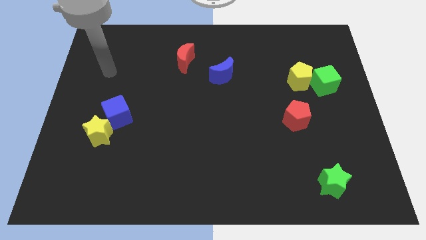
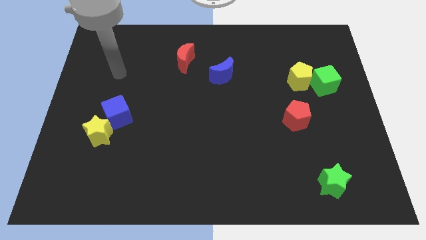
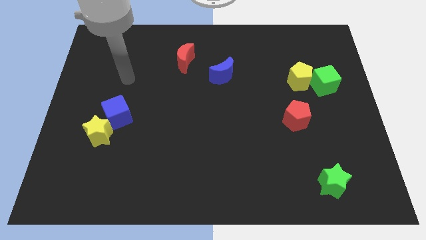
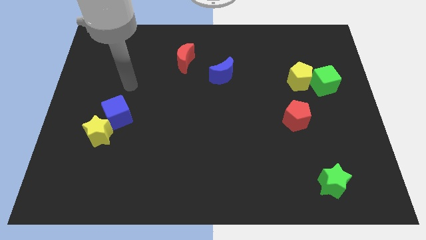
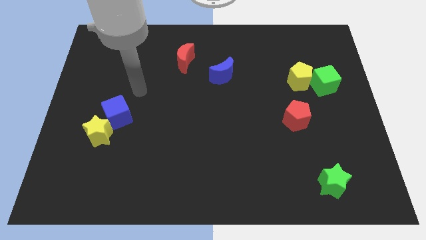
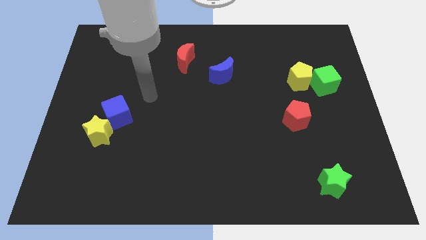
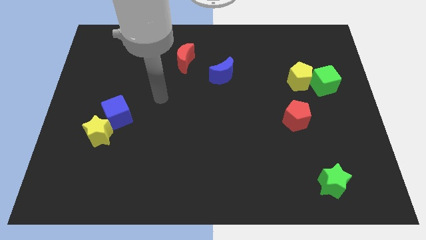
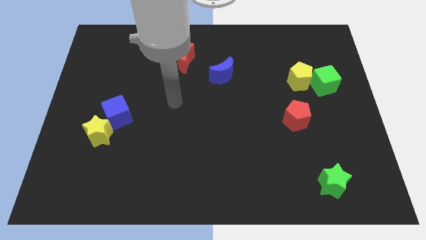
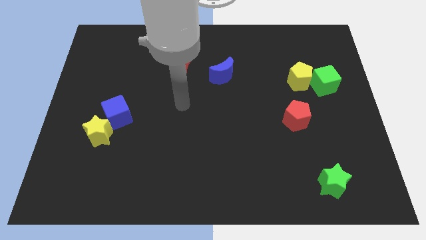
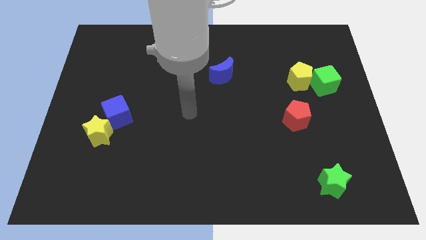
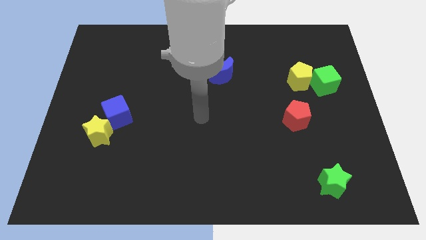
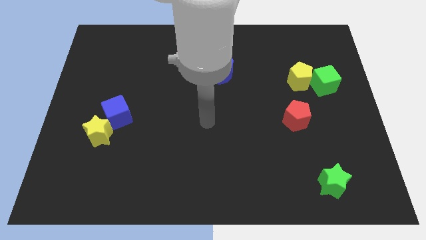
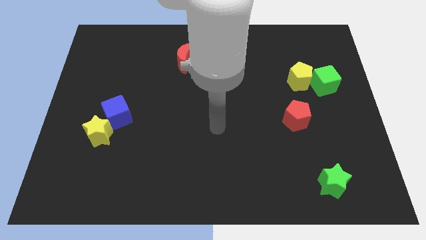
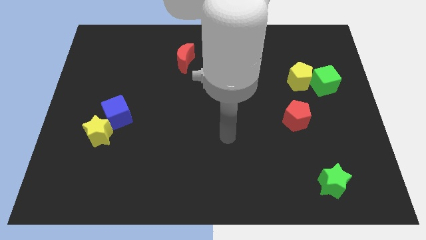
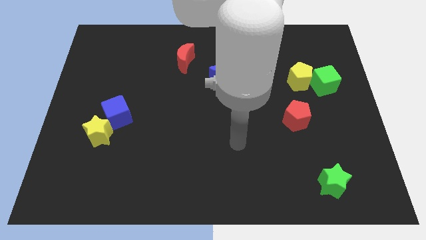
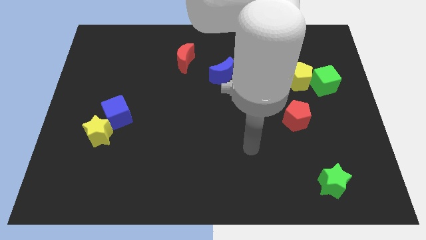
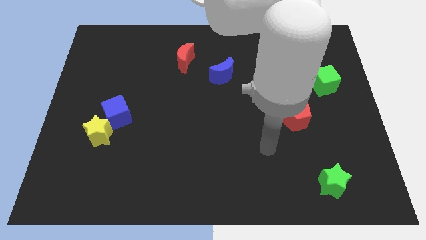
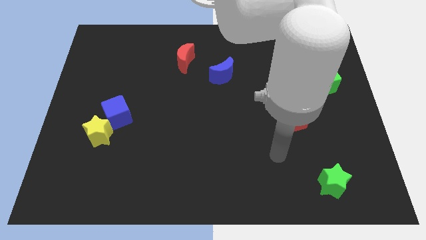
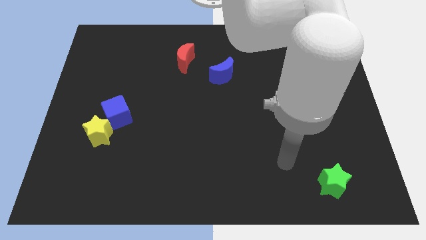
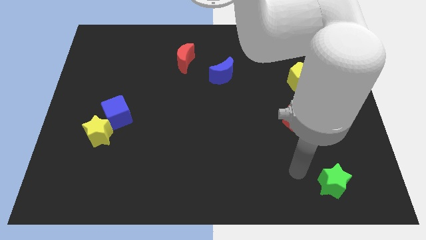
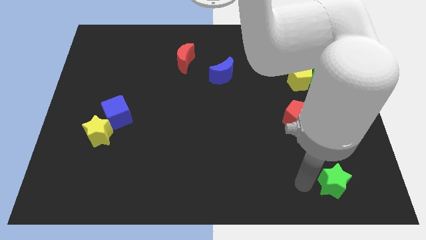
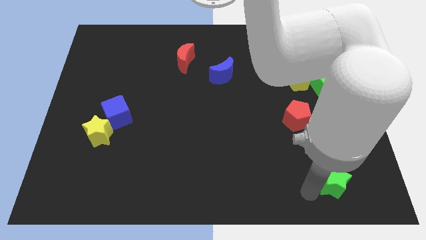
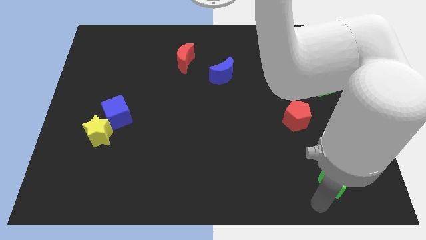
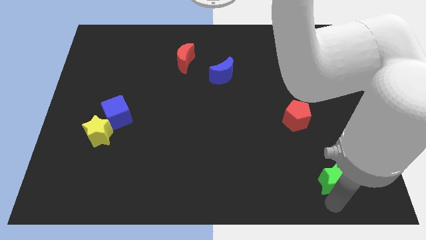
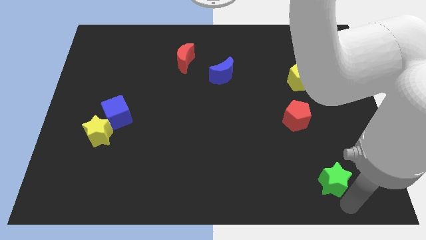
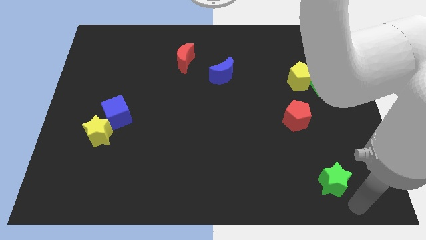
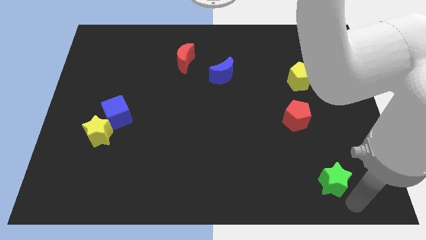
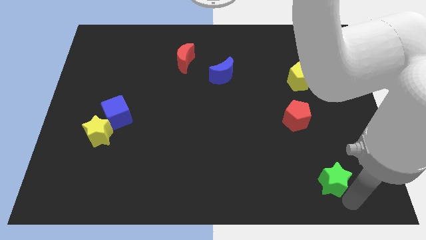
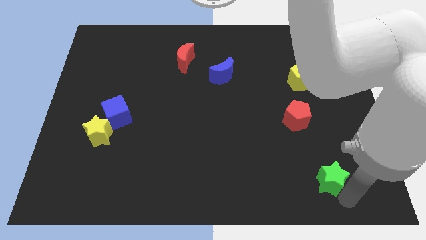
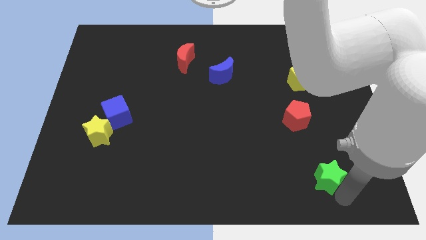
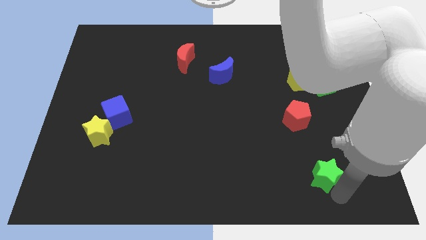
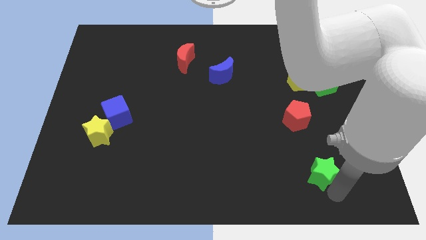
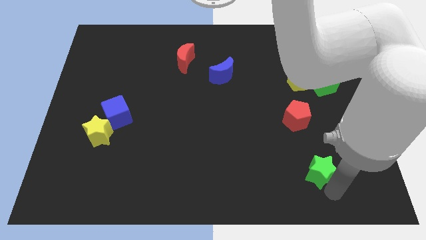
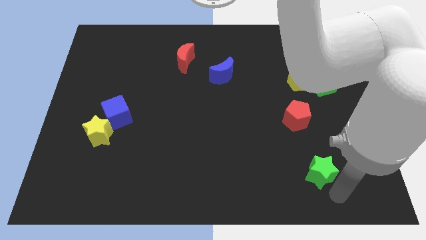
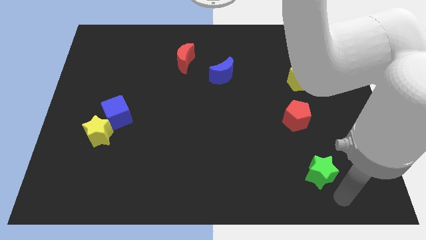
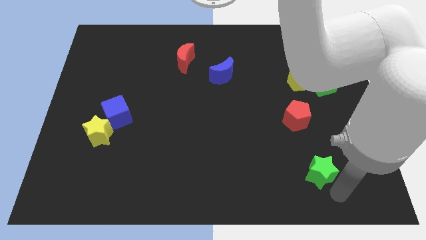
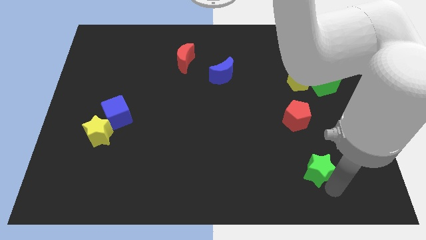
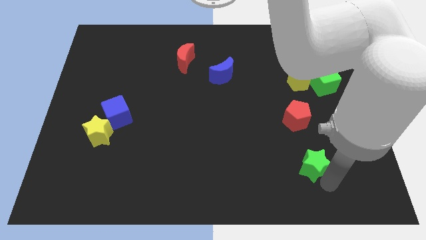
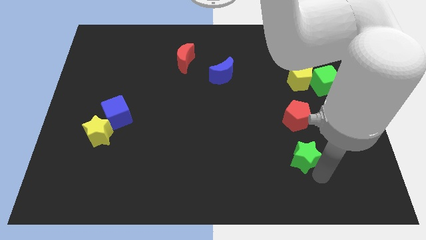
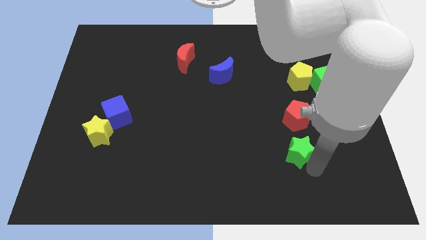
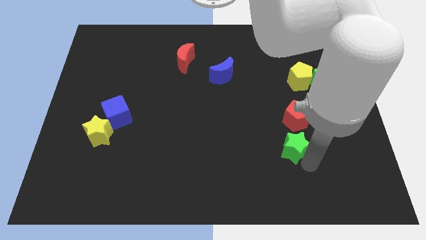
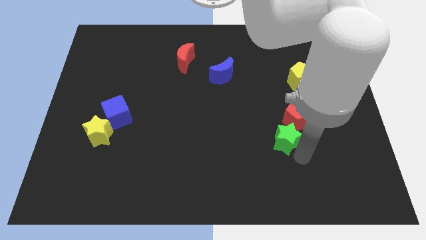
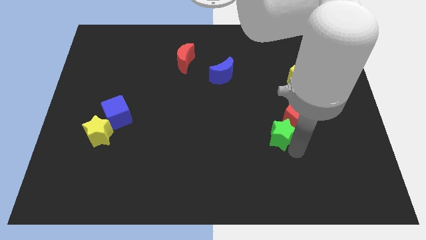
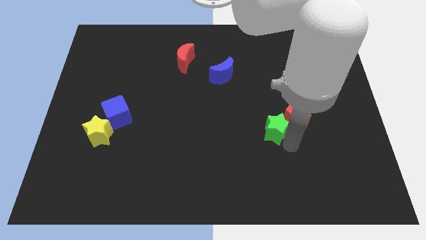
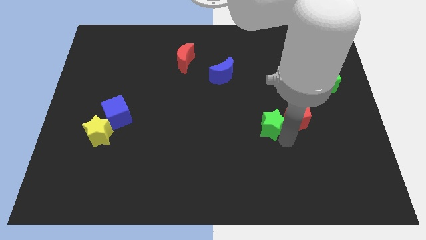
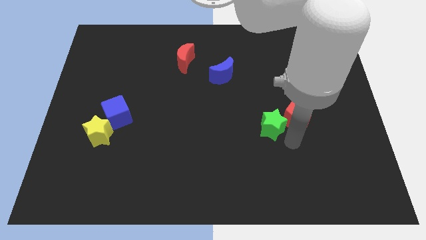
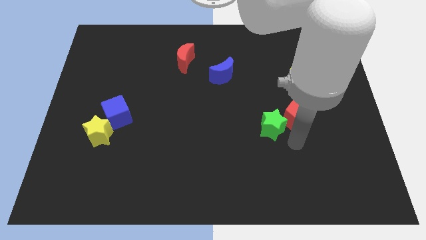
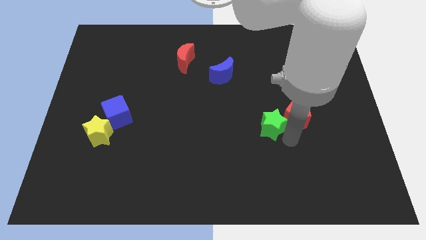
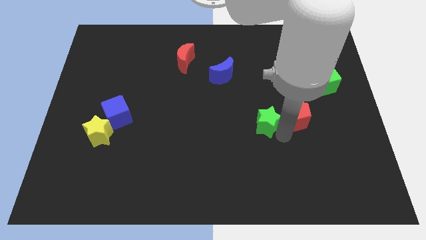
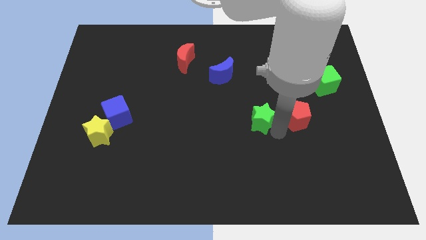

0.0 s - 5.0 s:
slide the green star diagonally up and to the left

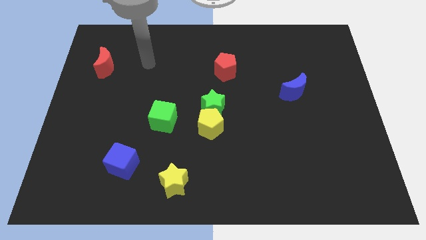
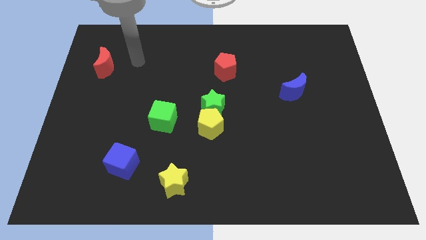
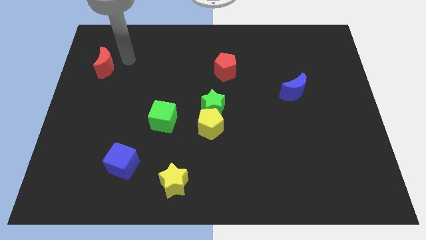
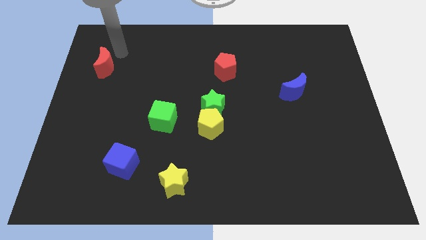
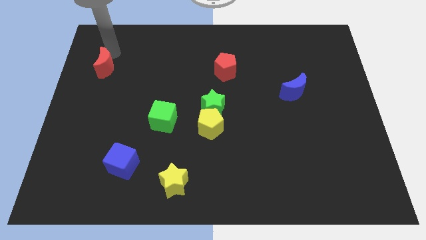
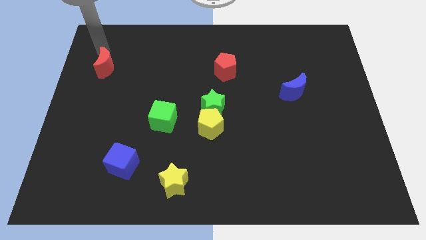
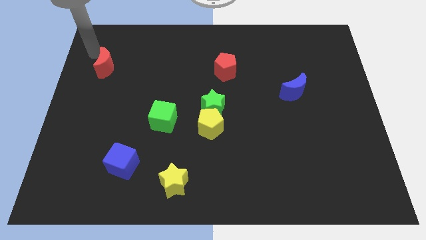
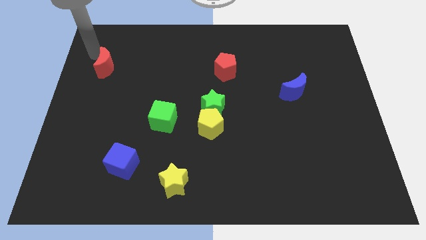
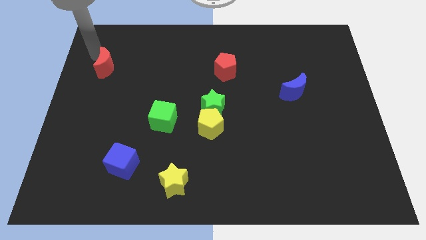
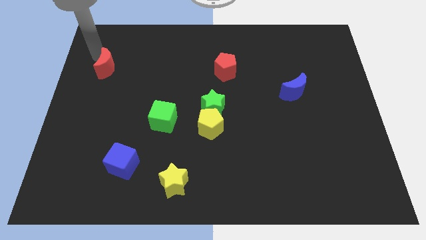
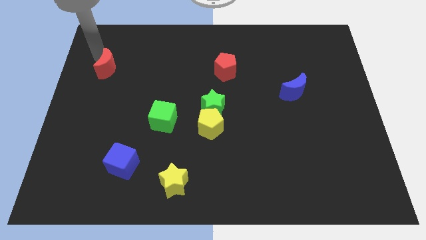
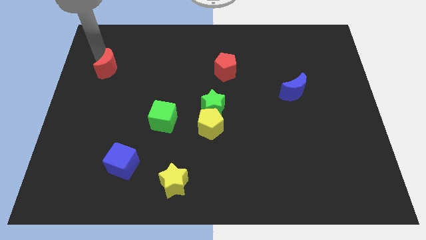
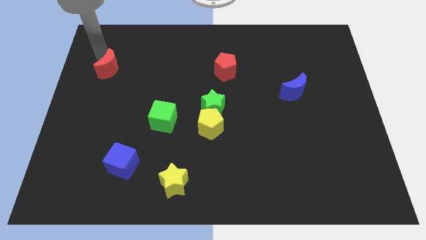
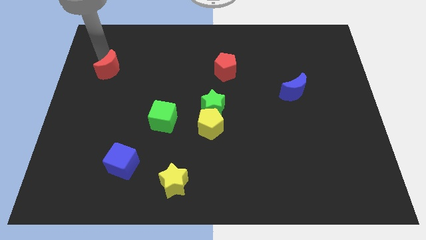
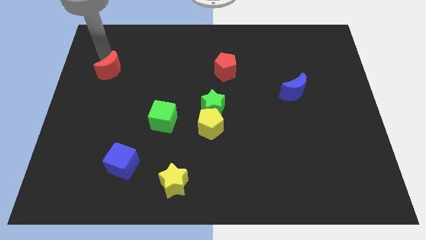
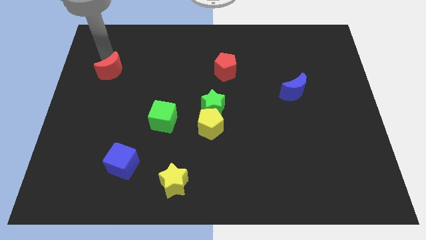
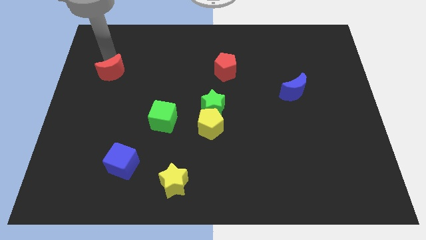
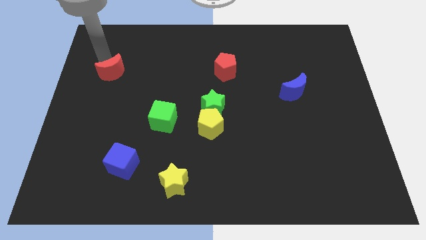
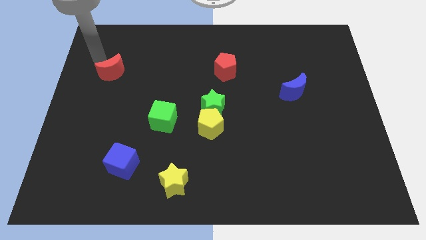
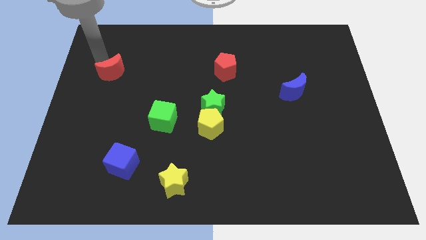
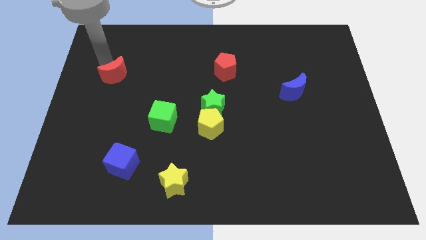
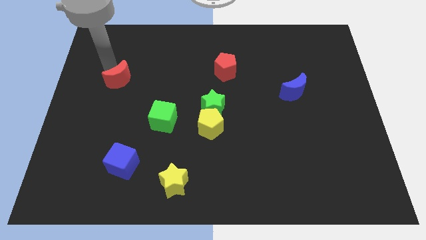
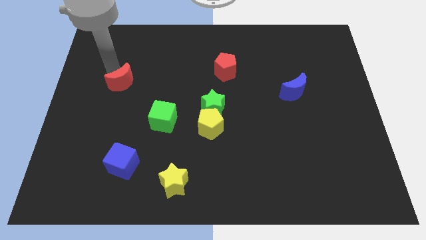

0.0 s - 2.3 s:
slightly push the red moon down and to the right diagonally

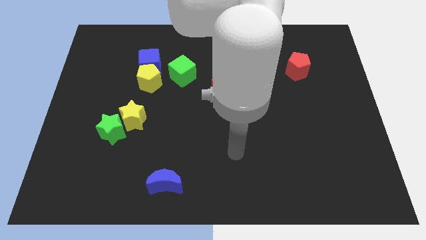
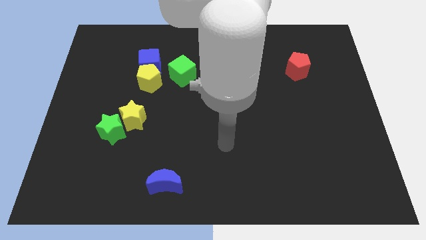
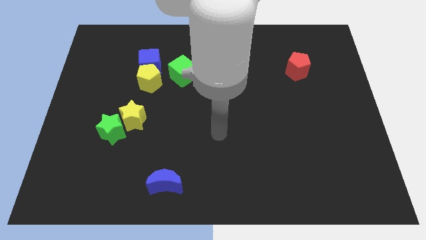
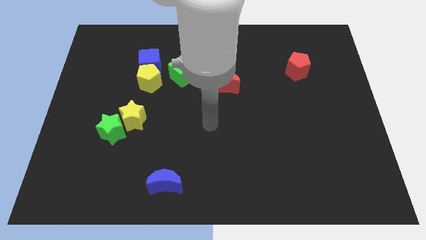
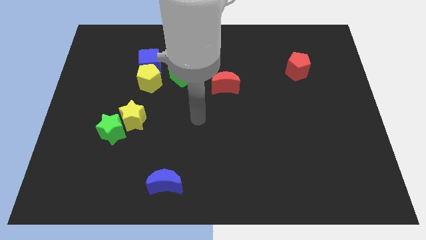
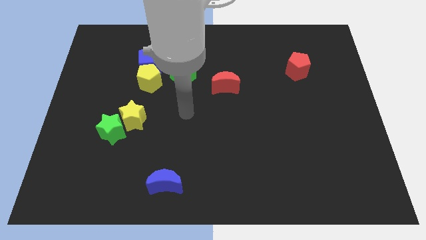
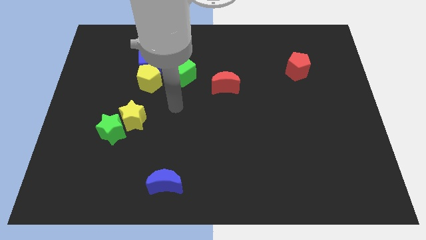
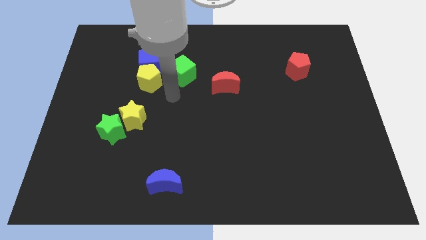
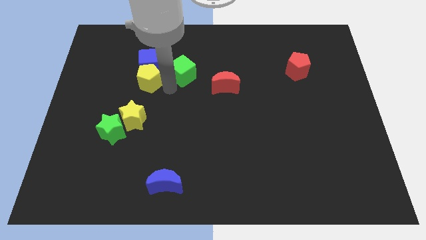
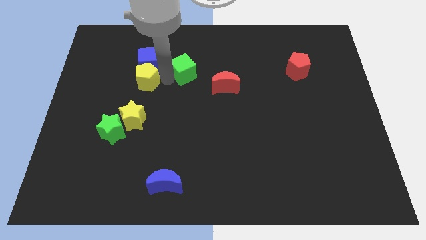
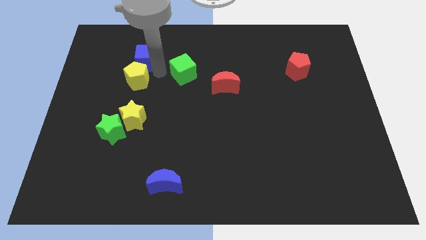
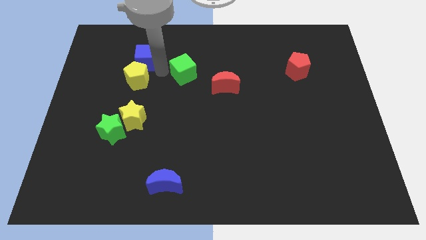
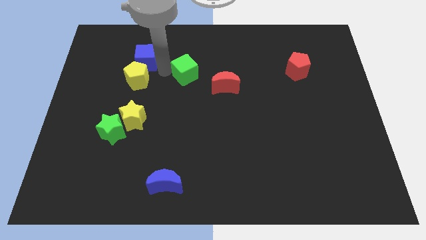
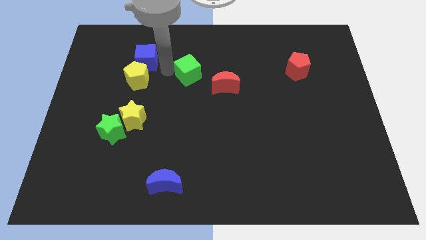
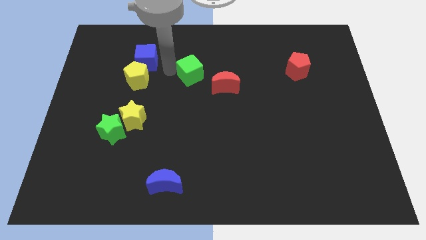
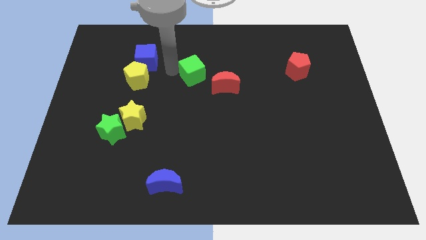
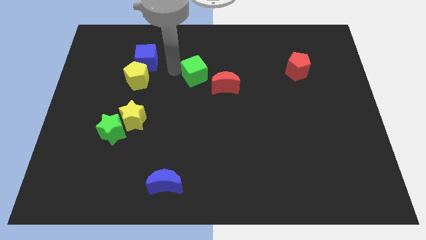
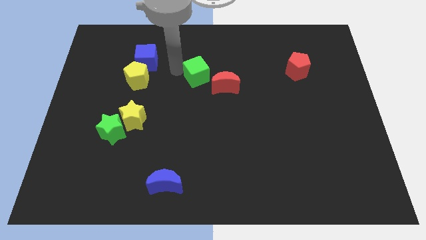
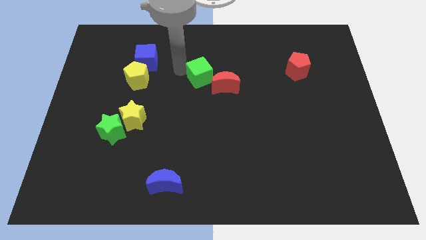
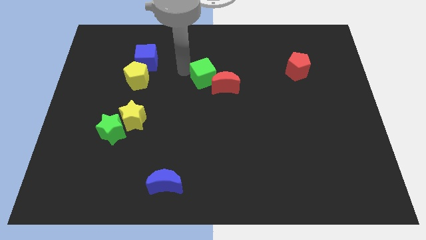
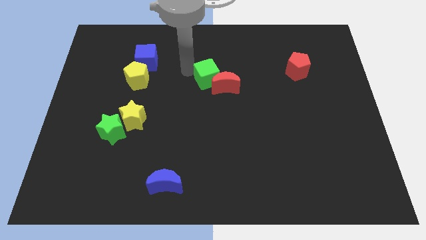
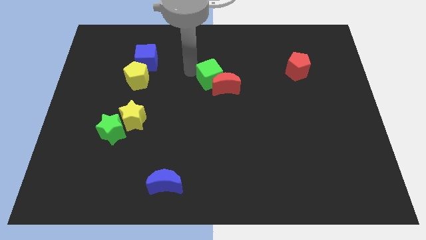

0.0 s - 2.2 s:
push the green cube right a little
